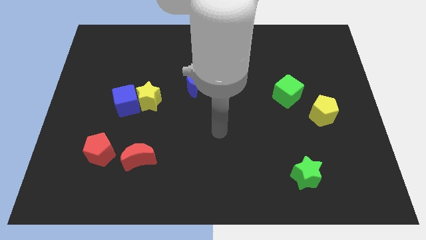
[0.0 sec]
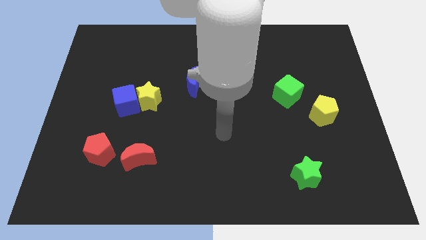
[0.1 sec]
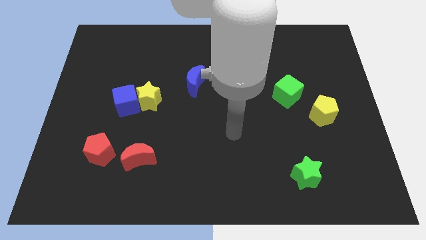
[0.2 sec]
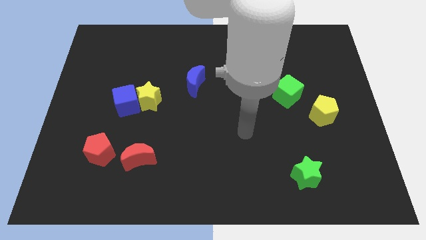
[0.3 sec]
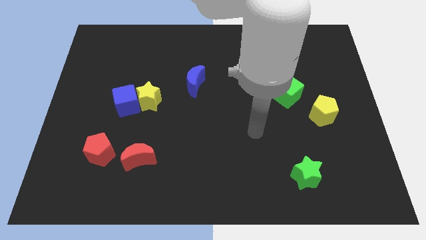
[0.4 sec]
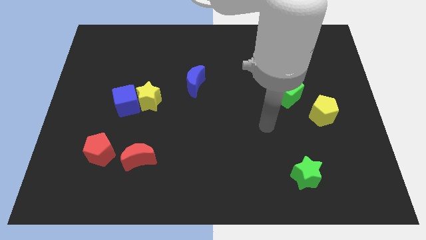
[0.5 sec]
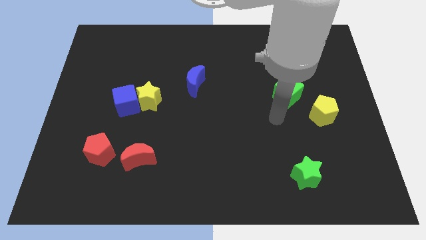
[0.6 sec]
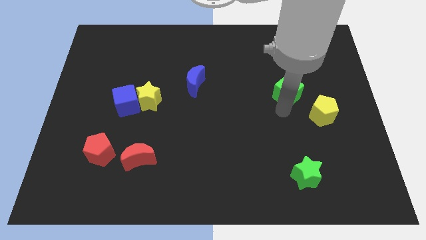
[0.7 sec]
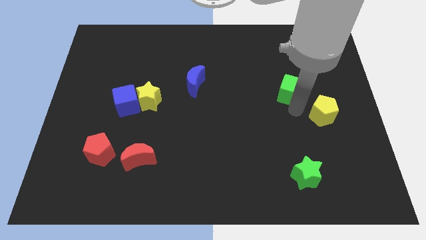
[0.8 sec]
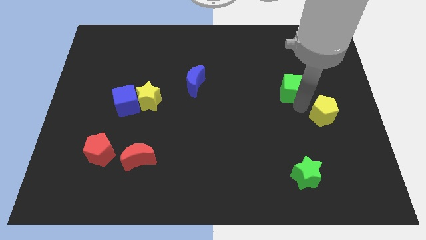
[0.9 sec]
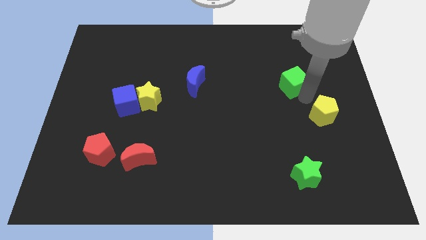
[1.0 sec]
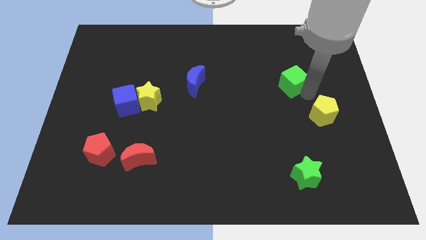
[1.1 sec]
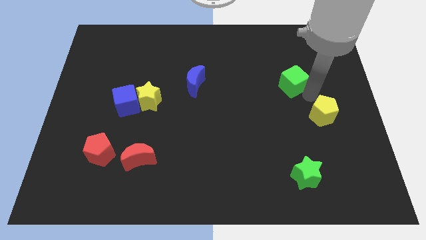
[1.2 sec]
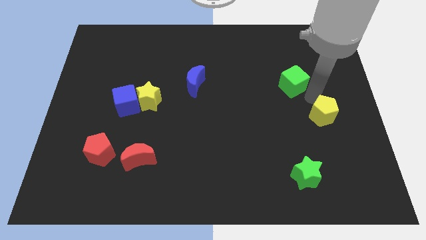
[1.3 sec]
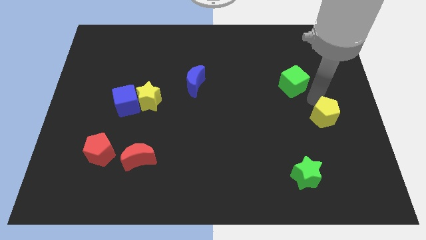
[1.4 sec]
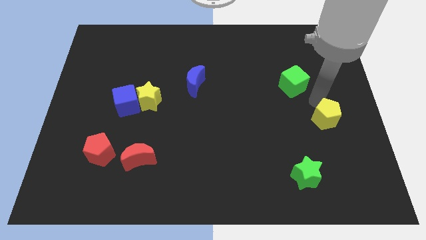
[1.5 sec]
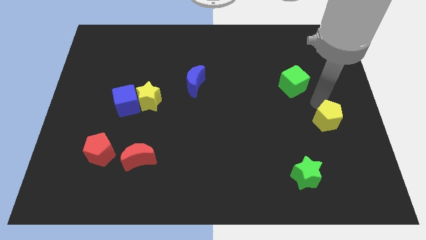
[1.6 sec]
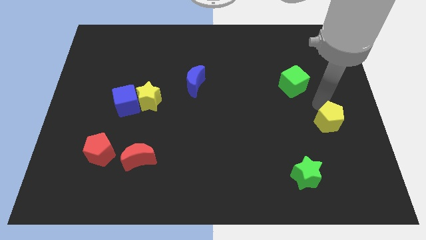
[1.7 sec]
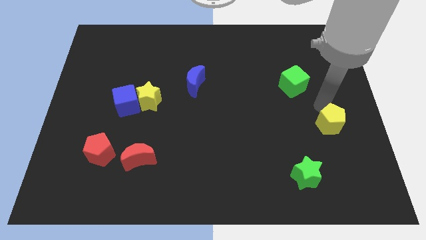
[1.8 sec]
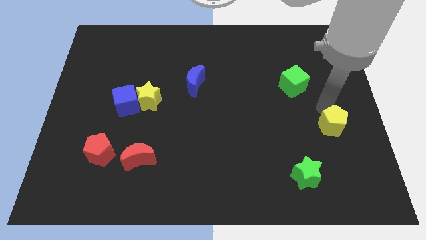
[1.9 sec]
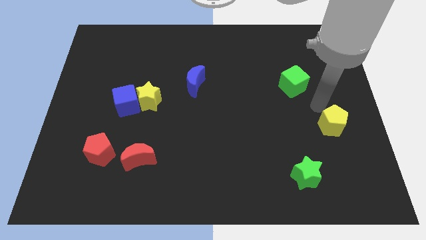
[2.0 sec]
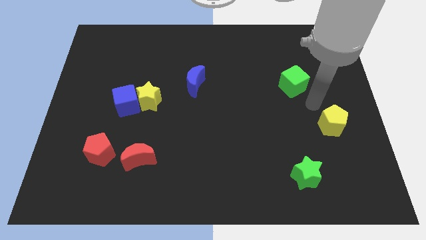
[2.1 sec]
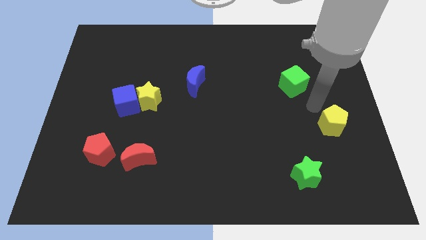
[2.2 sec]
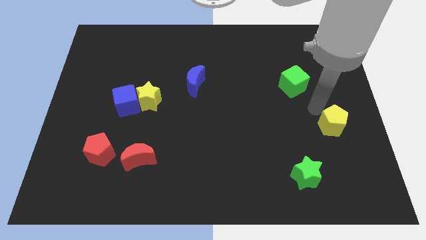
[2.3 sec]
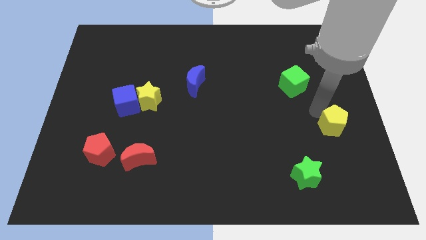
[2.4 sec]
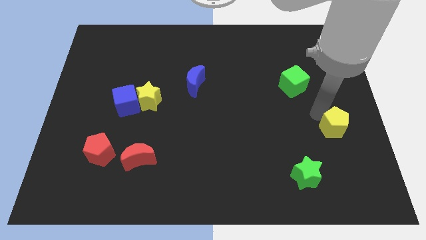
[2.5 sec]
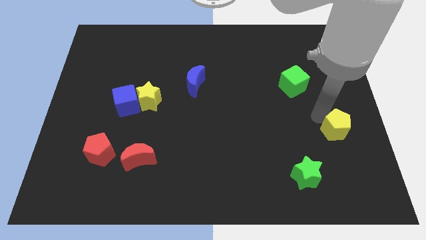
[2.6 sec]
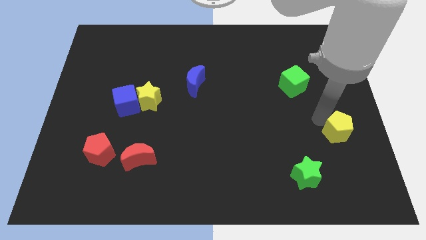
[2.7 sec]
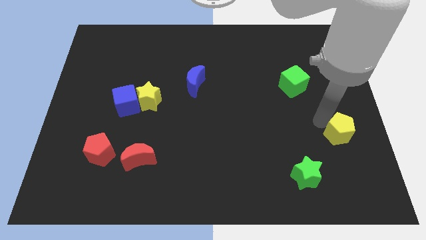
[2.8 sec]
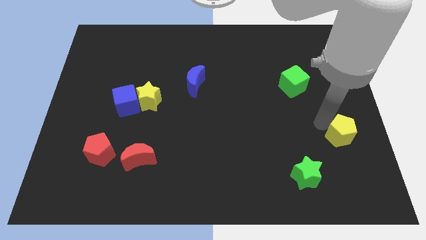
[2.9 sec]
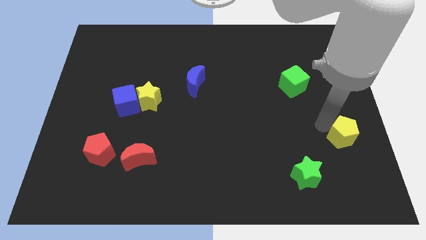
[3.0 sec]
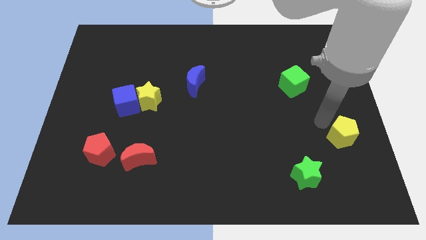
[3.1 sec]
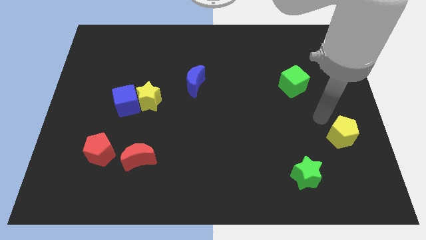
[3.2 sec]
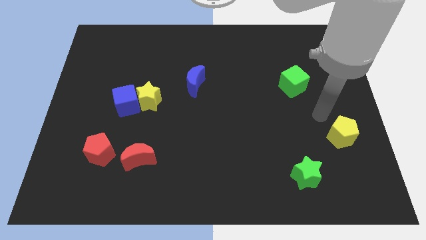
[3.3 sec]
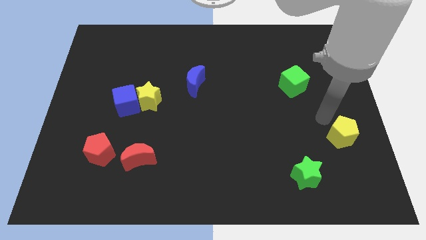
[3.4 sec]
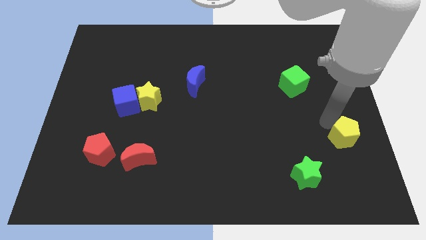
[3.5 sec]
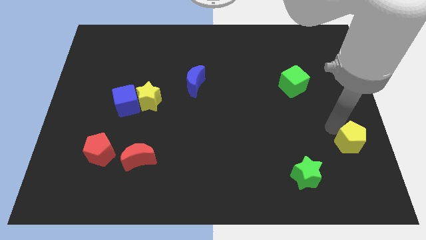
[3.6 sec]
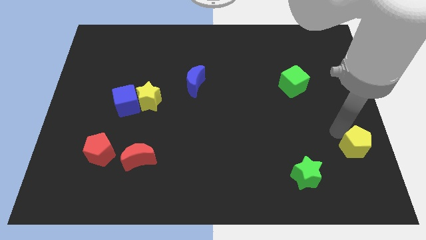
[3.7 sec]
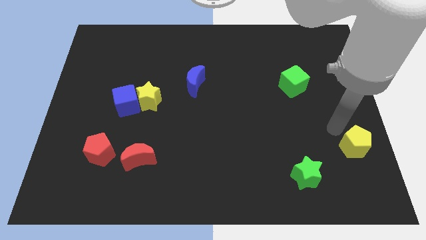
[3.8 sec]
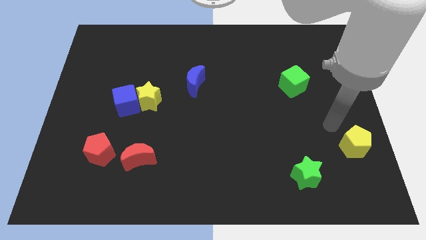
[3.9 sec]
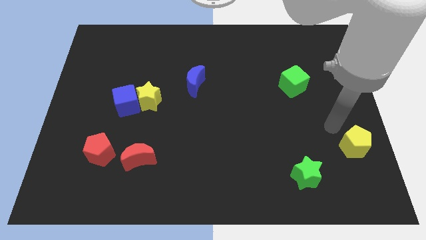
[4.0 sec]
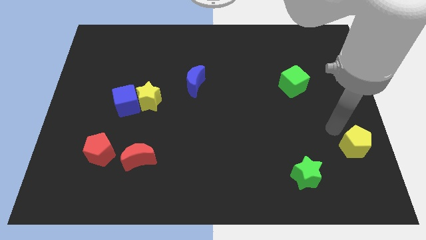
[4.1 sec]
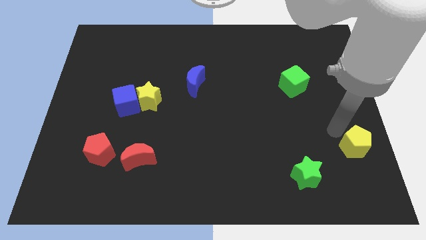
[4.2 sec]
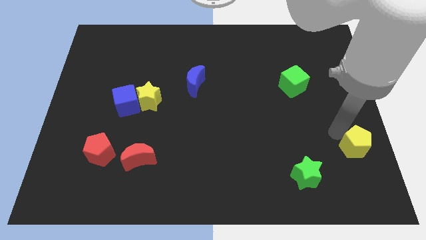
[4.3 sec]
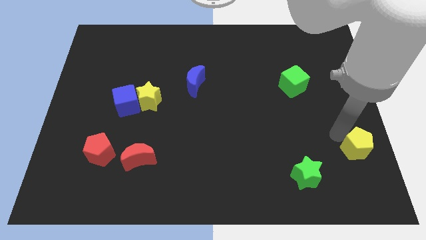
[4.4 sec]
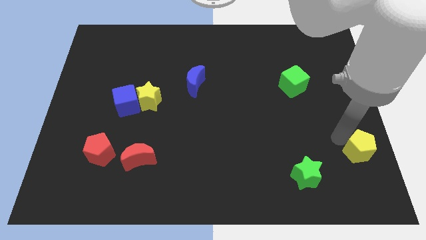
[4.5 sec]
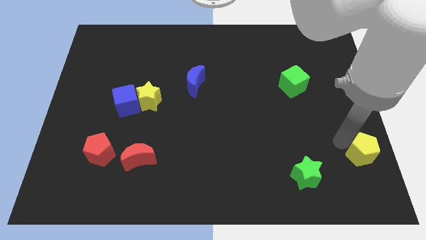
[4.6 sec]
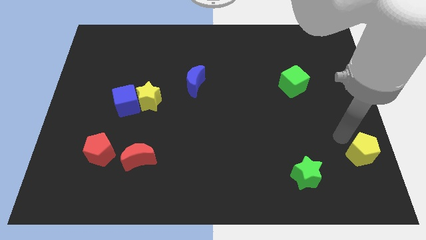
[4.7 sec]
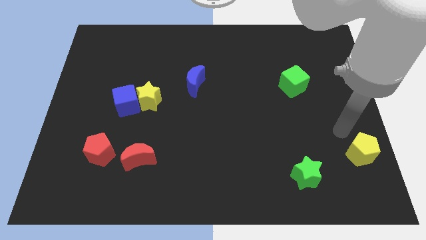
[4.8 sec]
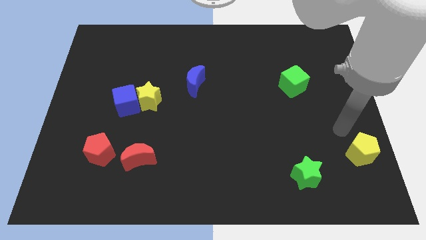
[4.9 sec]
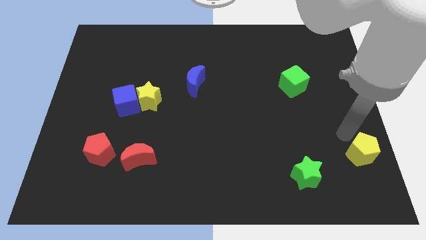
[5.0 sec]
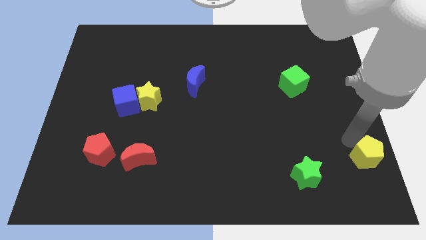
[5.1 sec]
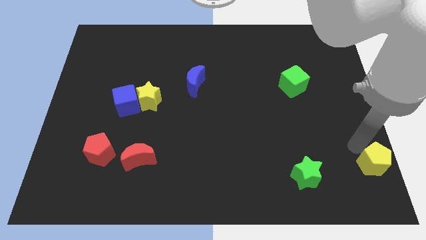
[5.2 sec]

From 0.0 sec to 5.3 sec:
push the yellow pentagon to the lower right corner

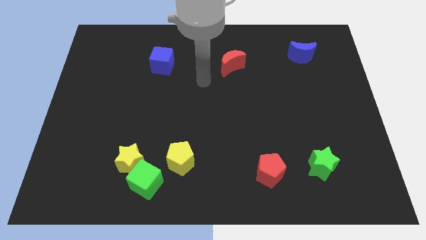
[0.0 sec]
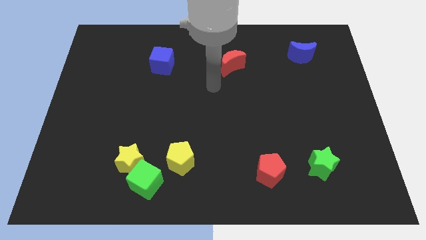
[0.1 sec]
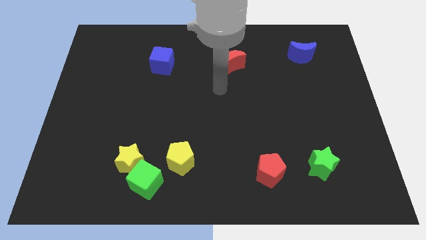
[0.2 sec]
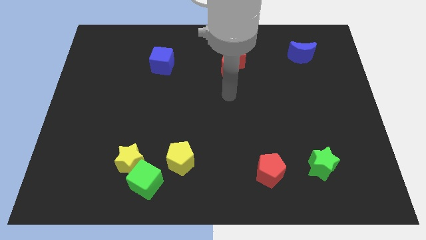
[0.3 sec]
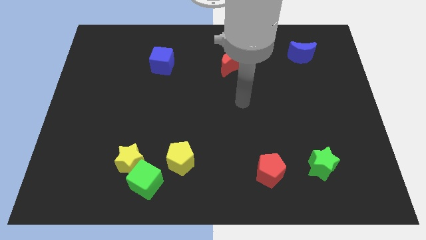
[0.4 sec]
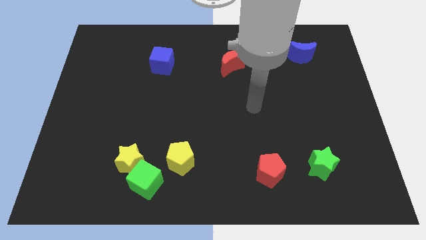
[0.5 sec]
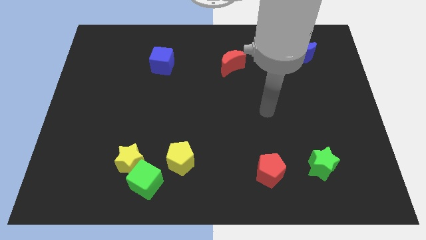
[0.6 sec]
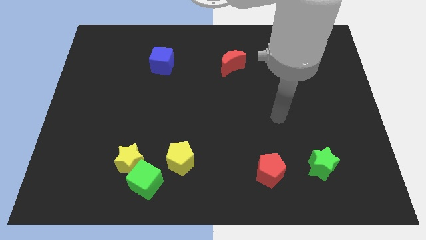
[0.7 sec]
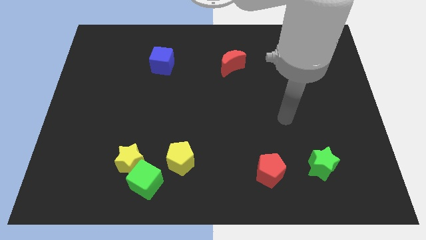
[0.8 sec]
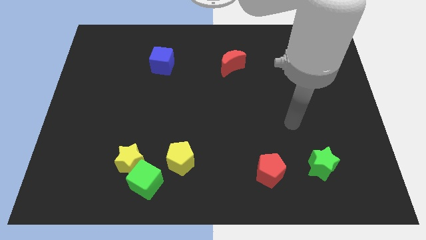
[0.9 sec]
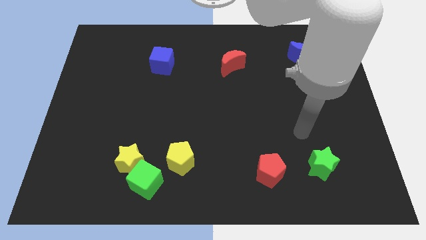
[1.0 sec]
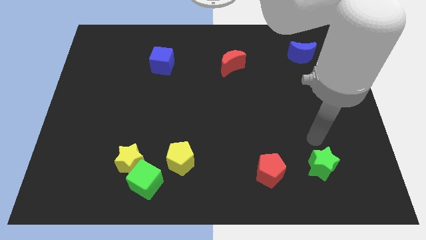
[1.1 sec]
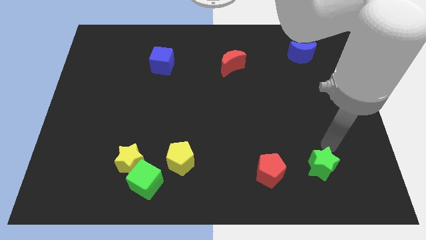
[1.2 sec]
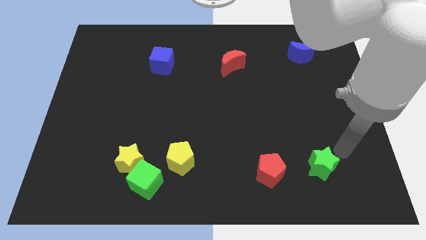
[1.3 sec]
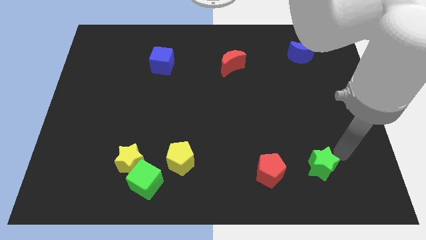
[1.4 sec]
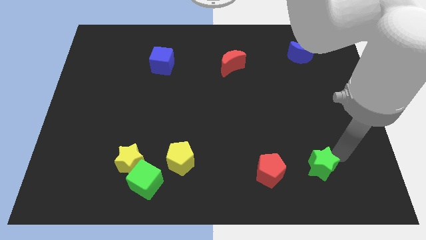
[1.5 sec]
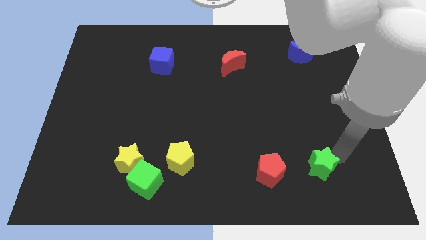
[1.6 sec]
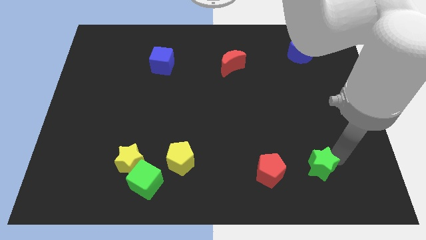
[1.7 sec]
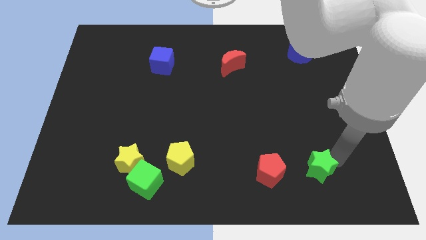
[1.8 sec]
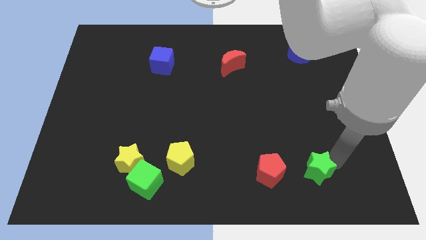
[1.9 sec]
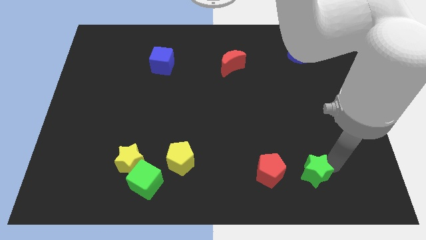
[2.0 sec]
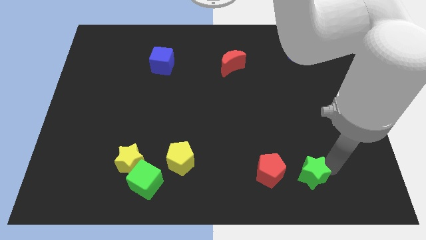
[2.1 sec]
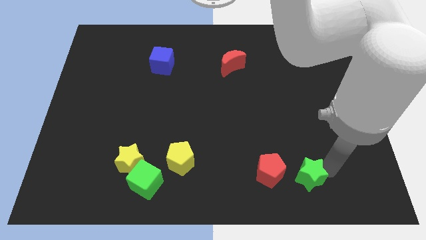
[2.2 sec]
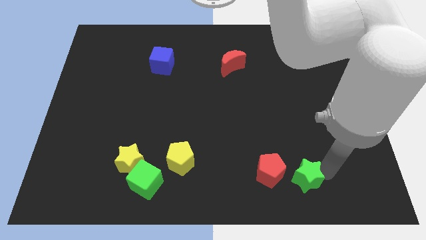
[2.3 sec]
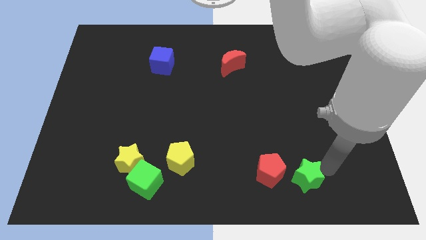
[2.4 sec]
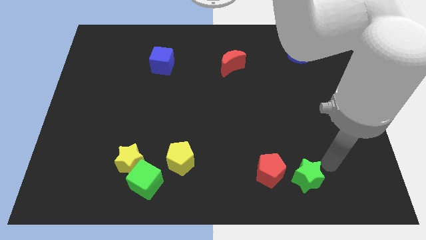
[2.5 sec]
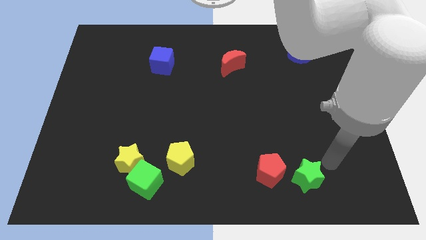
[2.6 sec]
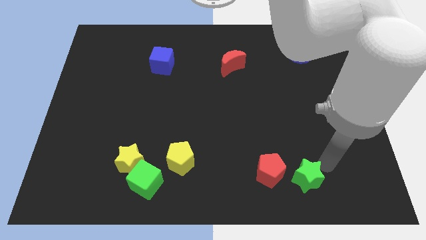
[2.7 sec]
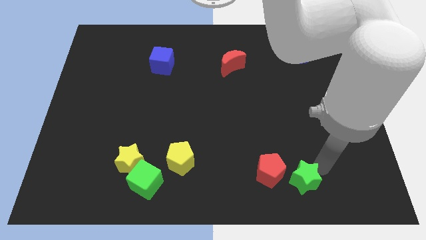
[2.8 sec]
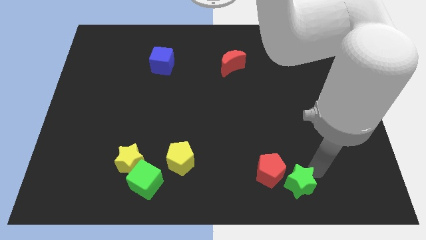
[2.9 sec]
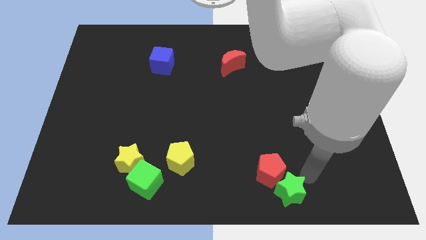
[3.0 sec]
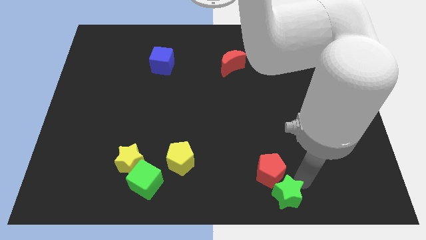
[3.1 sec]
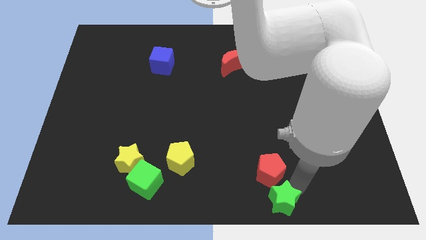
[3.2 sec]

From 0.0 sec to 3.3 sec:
put the green star to the bottom
